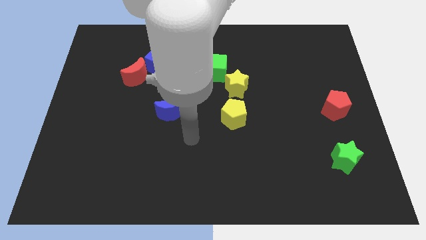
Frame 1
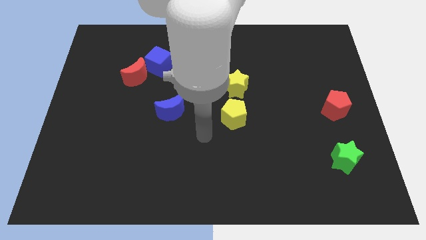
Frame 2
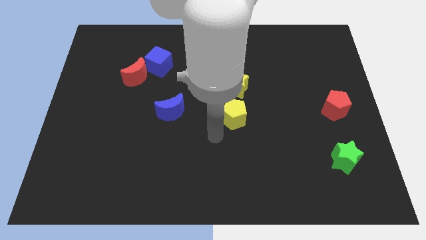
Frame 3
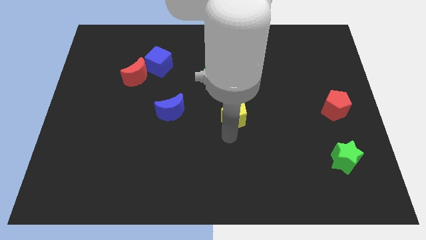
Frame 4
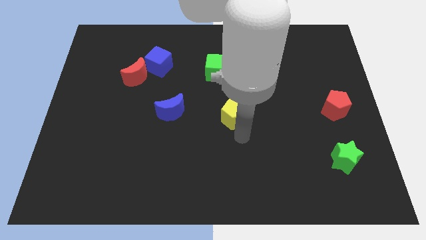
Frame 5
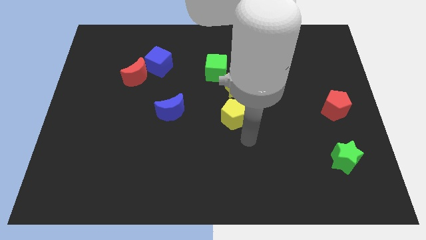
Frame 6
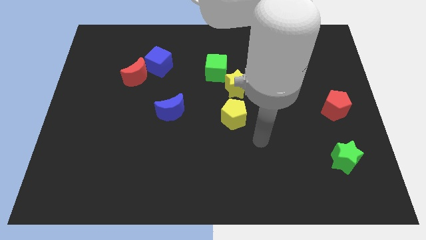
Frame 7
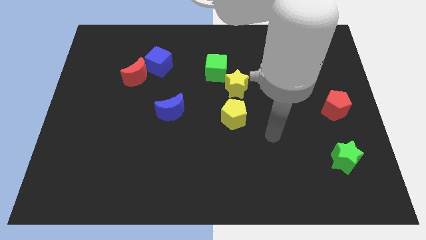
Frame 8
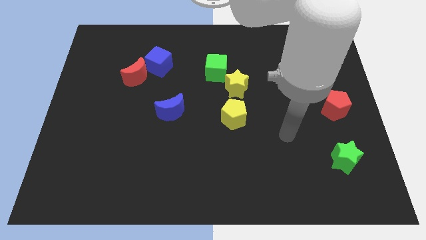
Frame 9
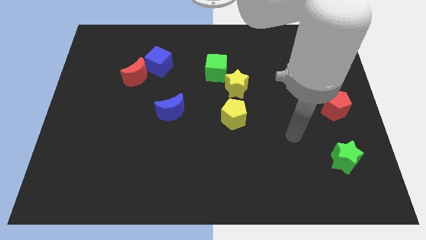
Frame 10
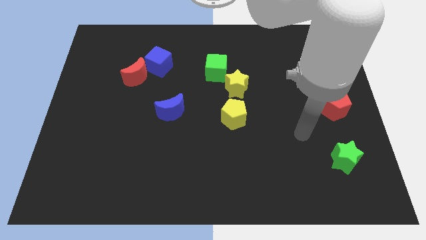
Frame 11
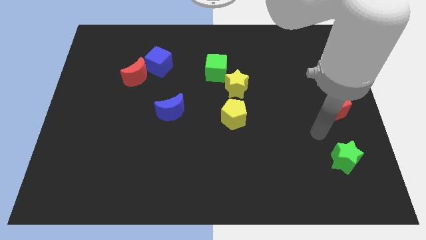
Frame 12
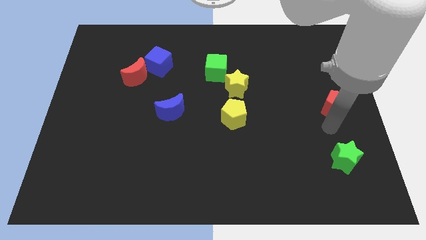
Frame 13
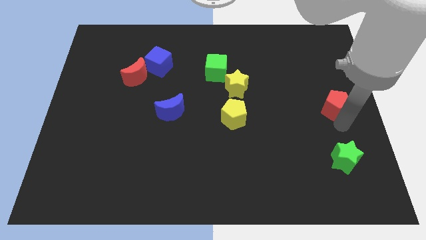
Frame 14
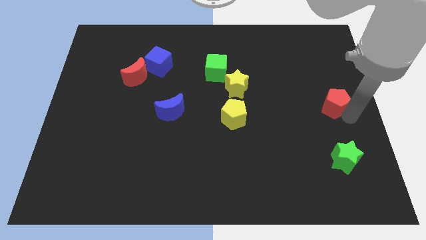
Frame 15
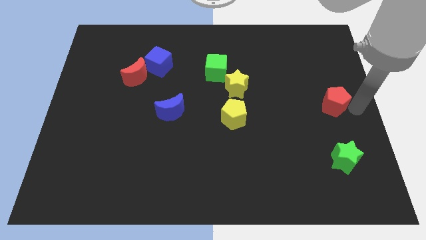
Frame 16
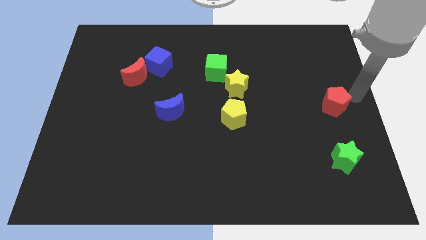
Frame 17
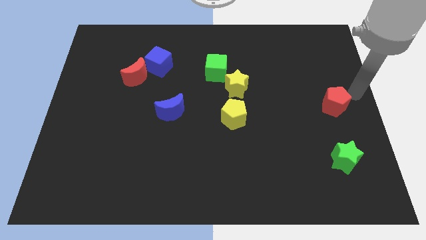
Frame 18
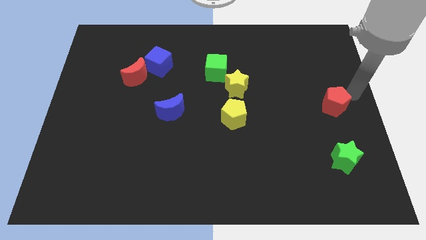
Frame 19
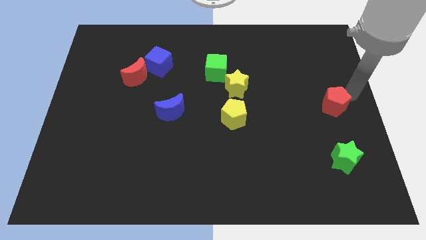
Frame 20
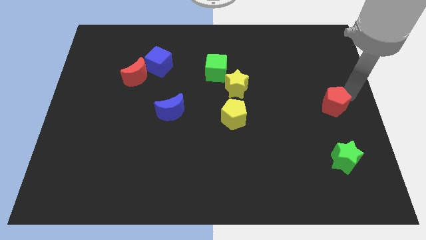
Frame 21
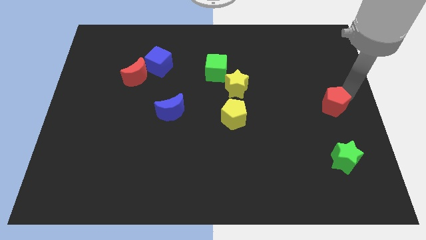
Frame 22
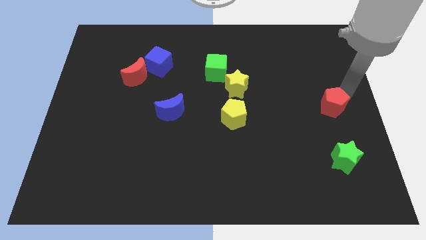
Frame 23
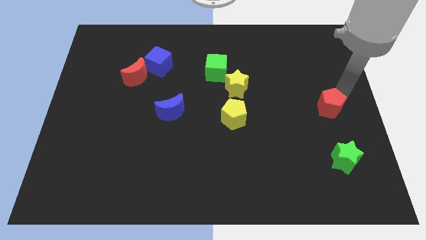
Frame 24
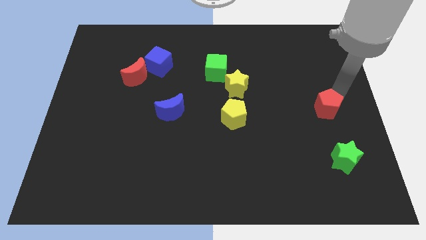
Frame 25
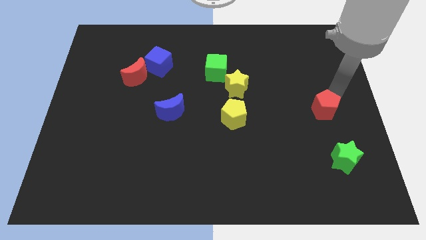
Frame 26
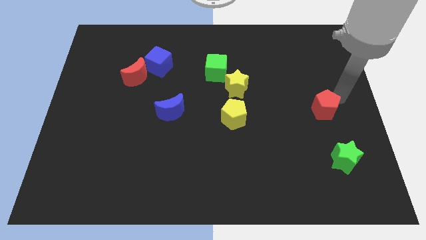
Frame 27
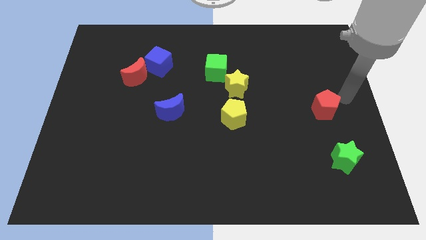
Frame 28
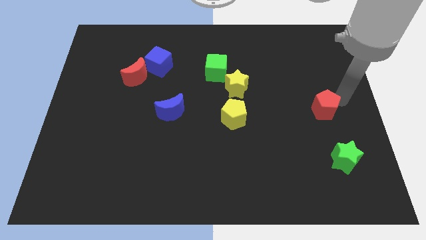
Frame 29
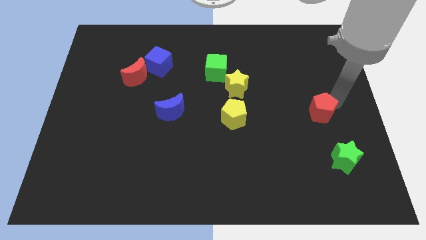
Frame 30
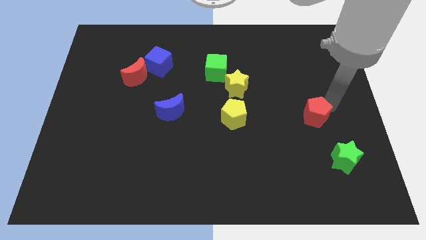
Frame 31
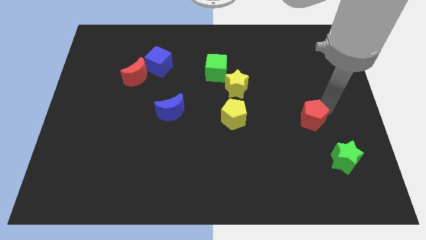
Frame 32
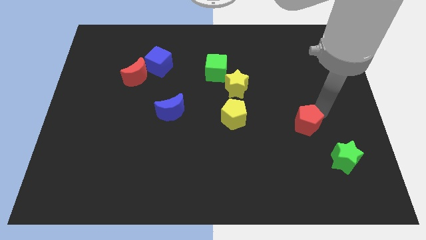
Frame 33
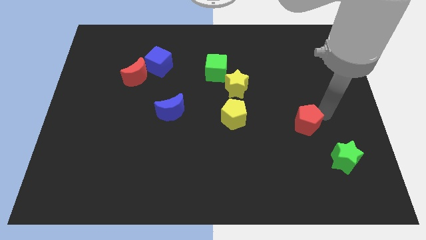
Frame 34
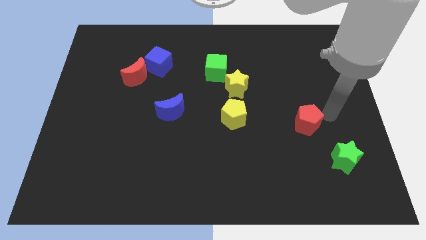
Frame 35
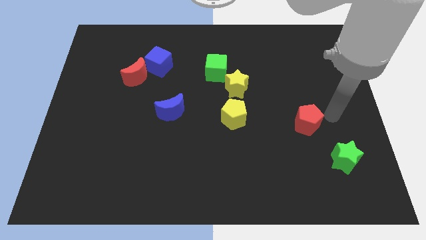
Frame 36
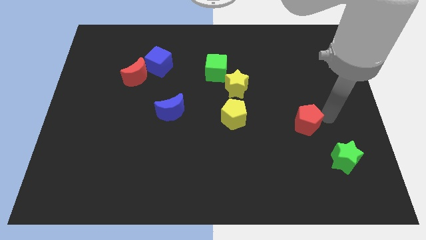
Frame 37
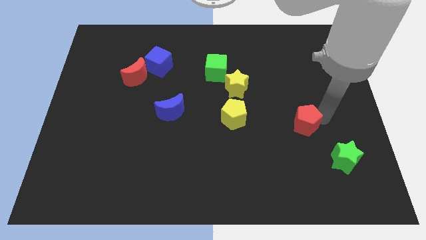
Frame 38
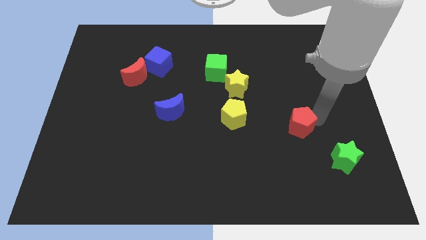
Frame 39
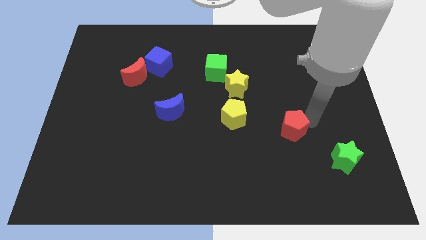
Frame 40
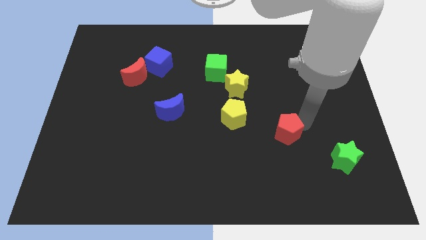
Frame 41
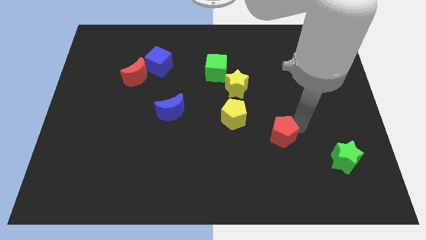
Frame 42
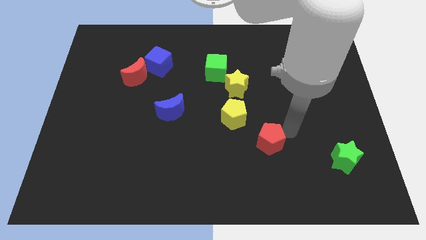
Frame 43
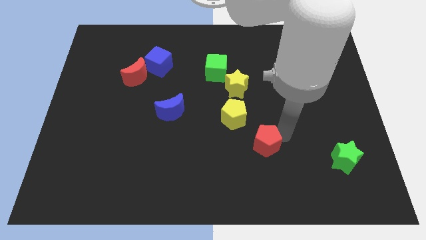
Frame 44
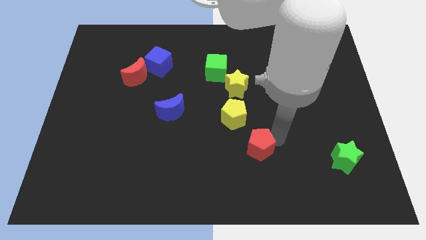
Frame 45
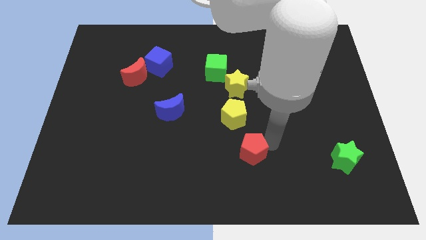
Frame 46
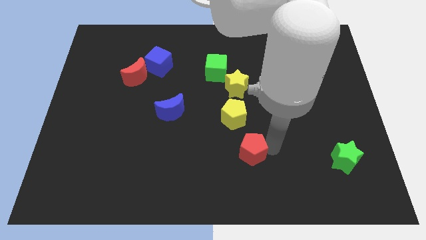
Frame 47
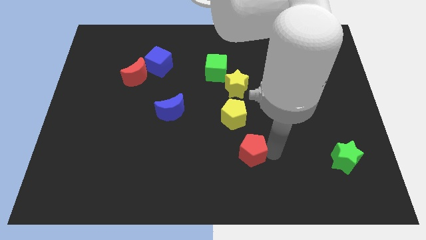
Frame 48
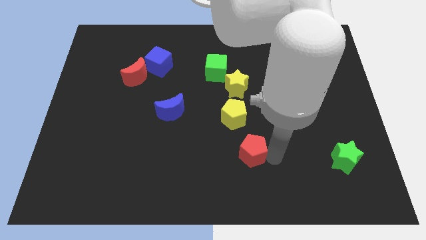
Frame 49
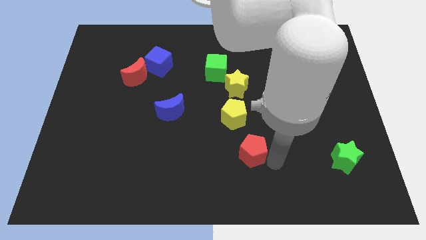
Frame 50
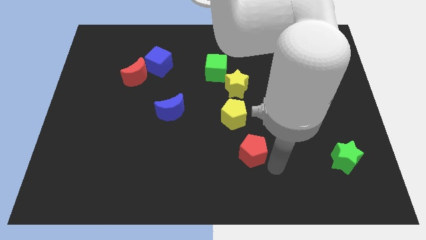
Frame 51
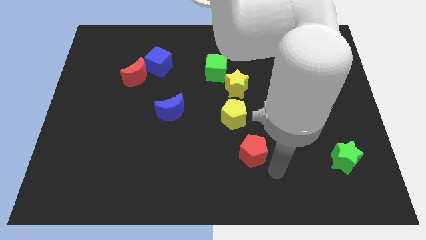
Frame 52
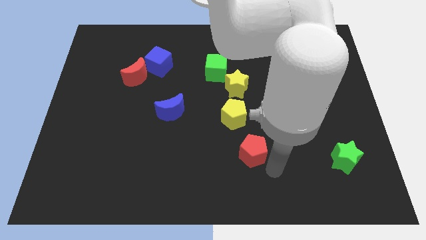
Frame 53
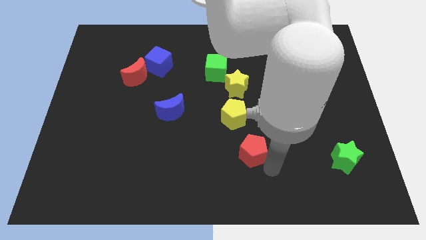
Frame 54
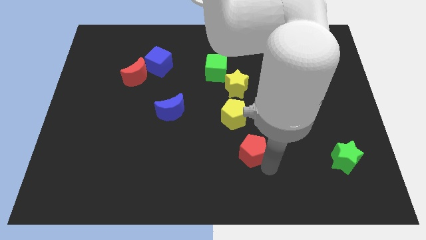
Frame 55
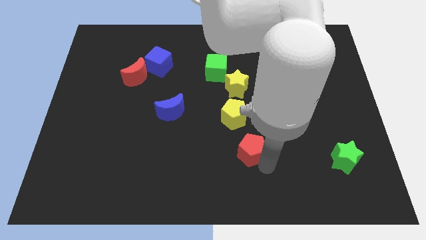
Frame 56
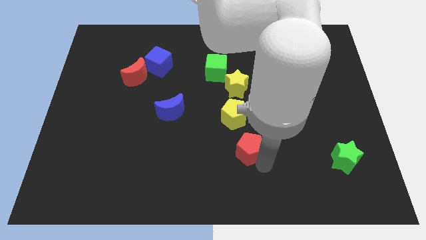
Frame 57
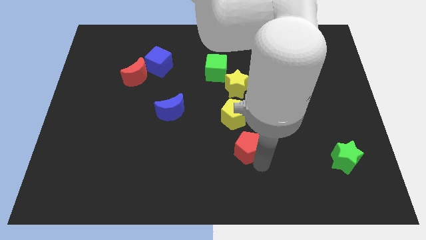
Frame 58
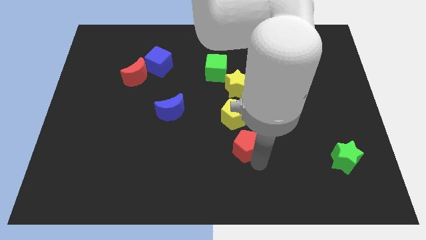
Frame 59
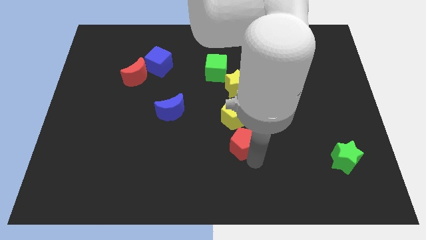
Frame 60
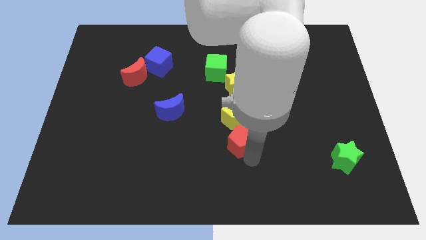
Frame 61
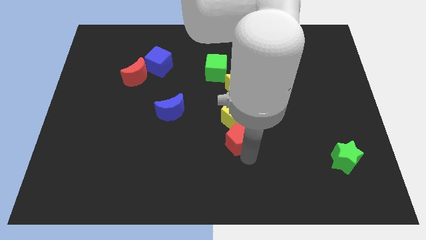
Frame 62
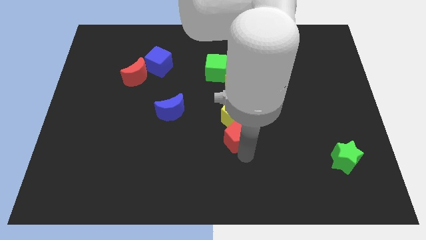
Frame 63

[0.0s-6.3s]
push the red pentagon to the left

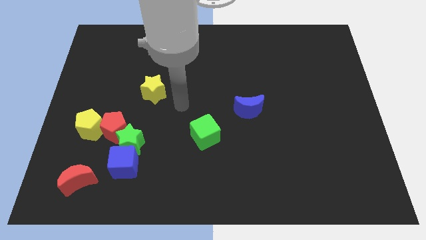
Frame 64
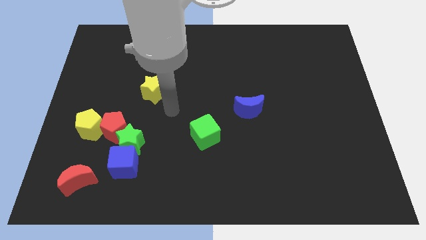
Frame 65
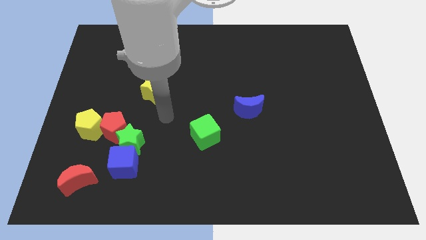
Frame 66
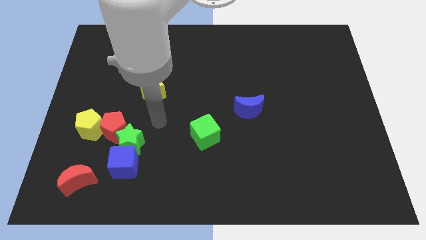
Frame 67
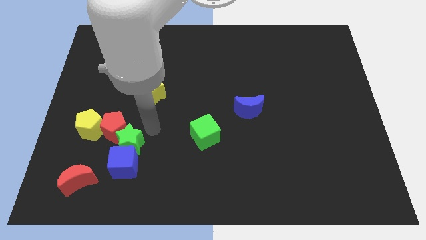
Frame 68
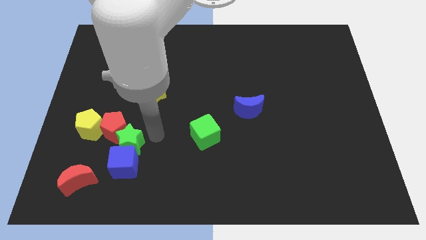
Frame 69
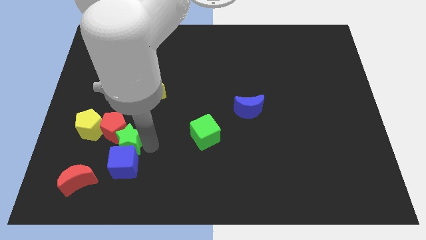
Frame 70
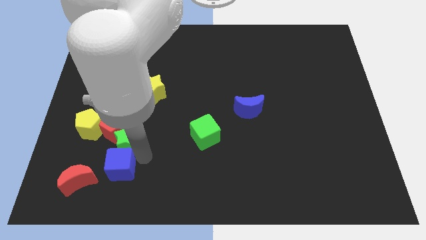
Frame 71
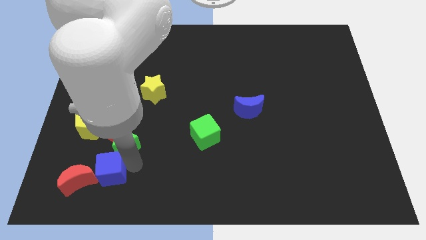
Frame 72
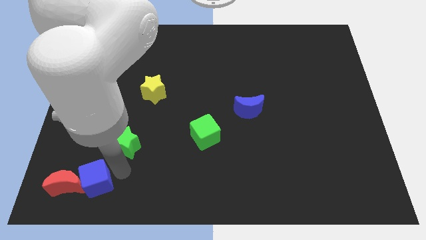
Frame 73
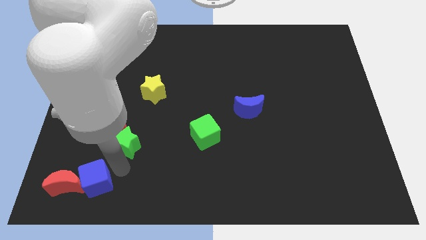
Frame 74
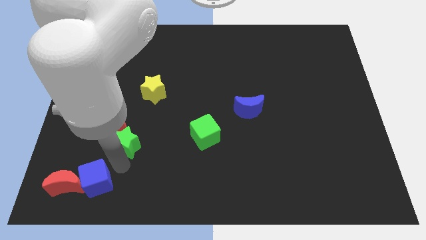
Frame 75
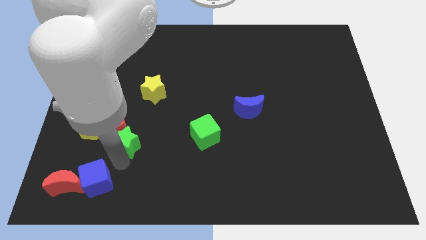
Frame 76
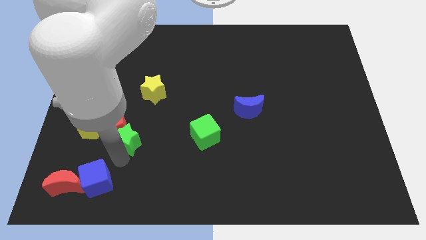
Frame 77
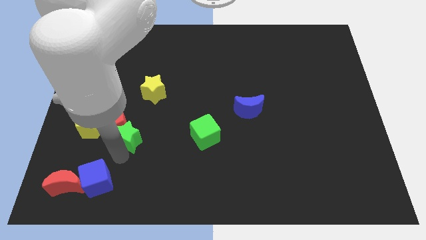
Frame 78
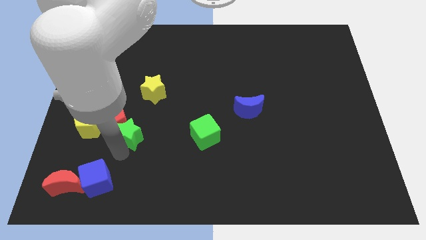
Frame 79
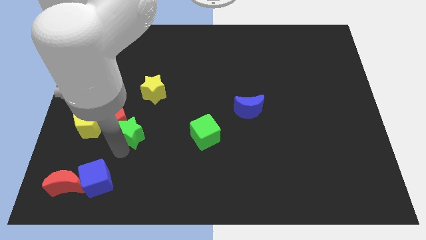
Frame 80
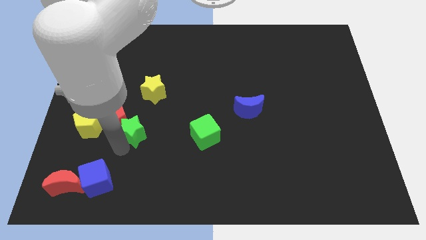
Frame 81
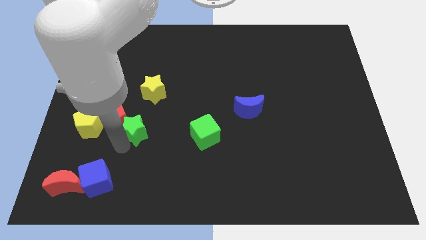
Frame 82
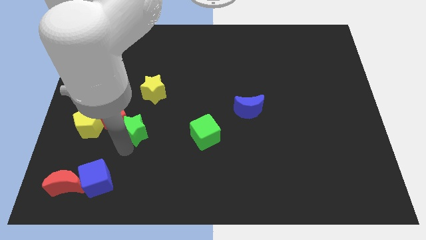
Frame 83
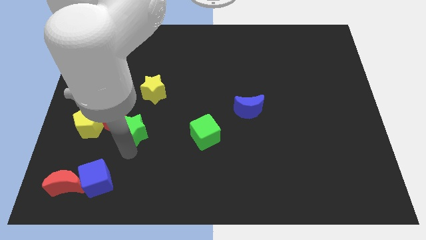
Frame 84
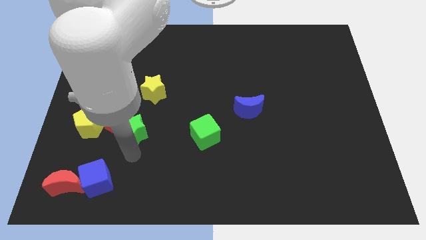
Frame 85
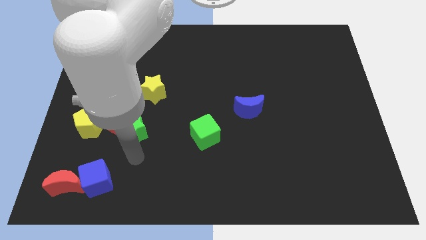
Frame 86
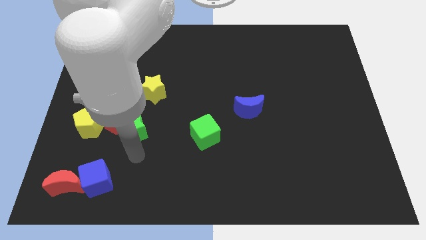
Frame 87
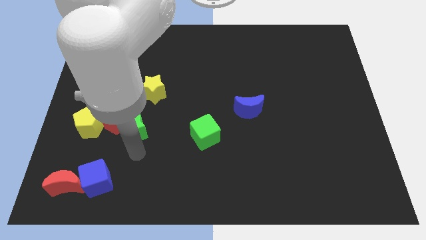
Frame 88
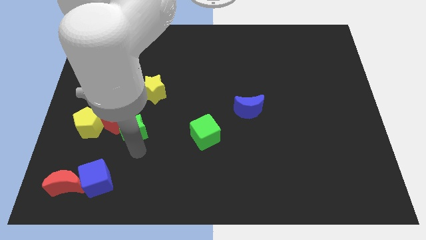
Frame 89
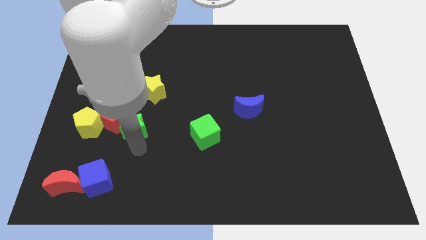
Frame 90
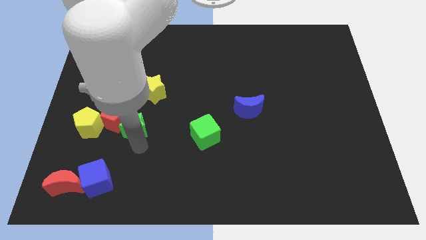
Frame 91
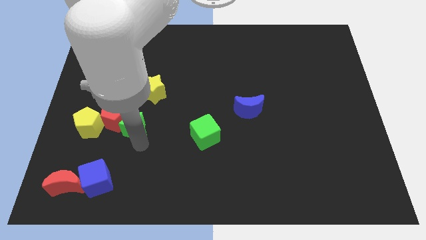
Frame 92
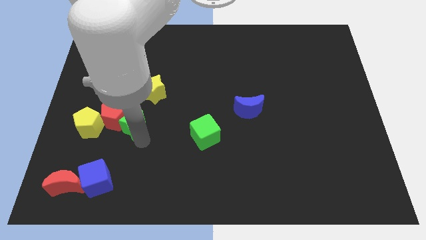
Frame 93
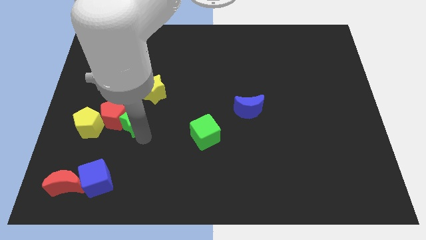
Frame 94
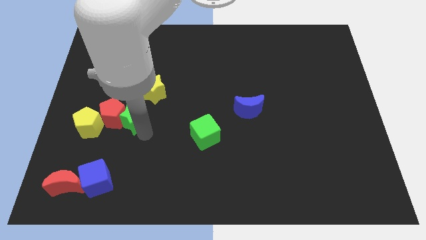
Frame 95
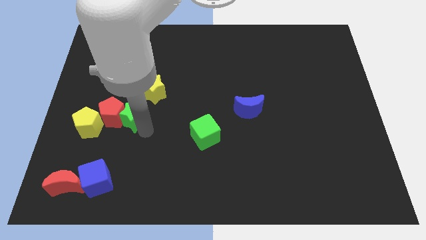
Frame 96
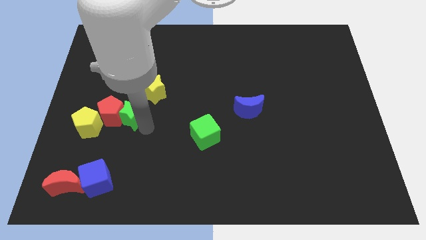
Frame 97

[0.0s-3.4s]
slightly move the green star up
